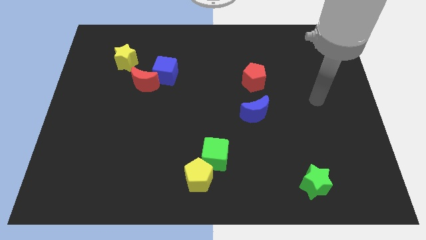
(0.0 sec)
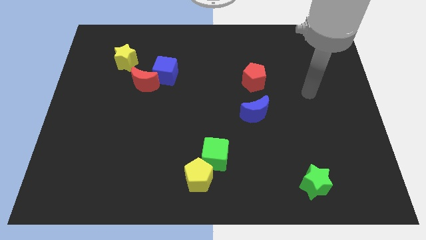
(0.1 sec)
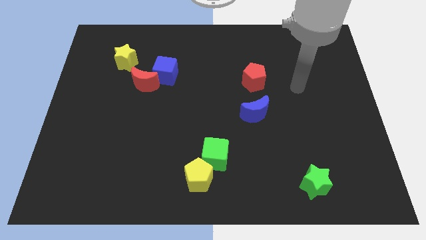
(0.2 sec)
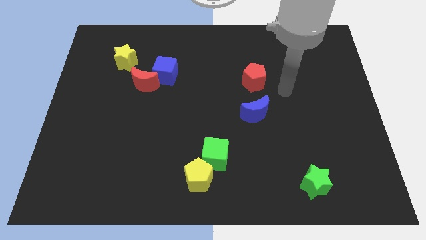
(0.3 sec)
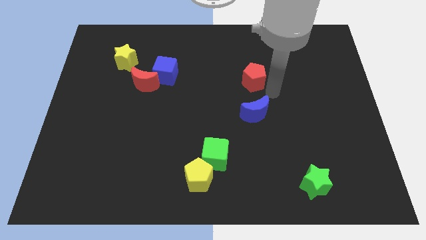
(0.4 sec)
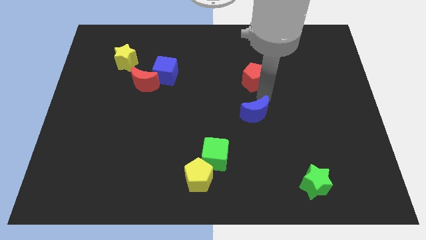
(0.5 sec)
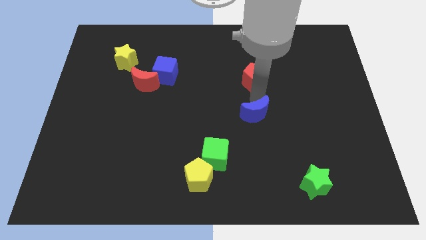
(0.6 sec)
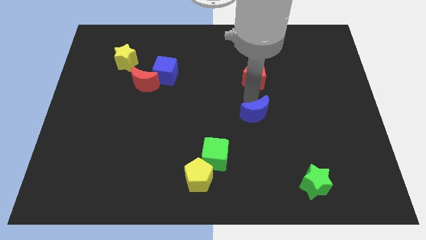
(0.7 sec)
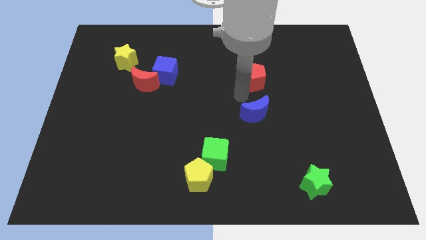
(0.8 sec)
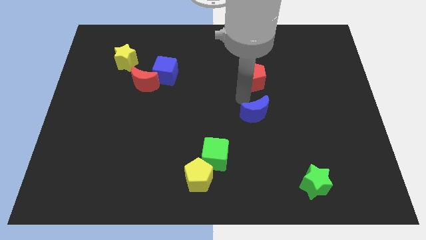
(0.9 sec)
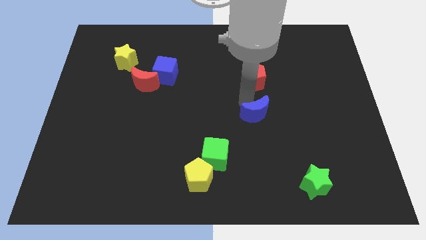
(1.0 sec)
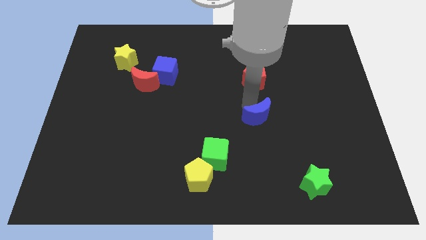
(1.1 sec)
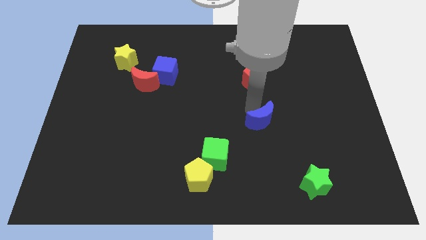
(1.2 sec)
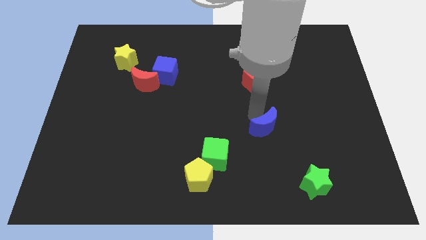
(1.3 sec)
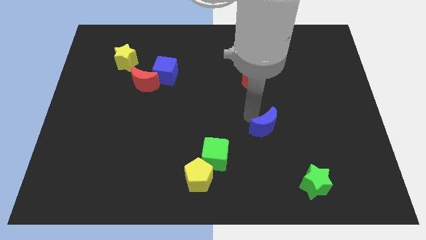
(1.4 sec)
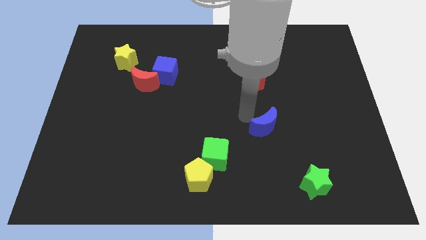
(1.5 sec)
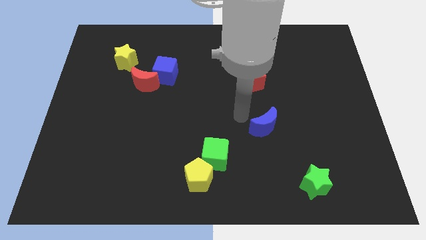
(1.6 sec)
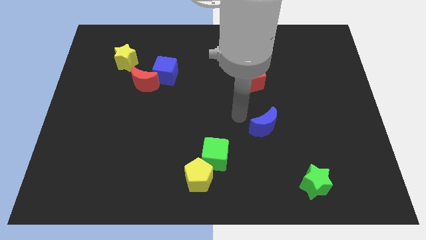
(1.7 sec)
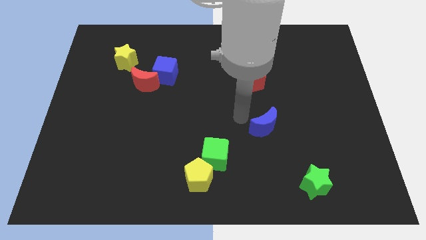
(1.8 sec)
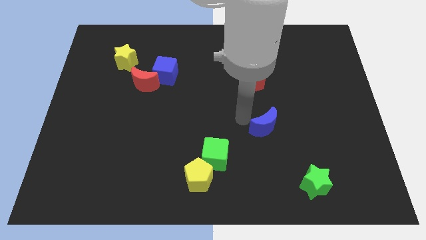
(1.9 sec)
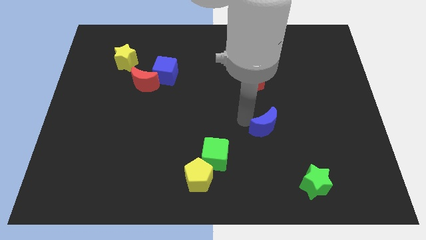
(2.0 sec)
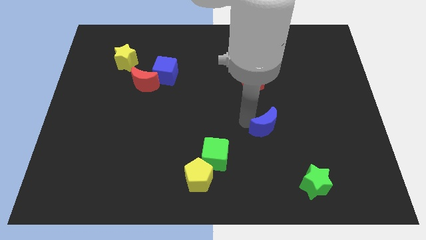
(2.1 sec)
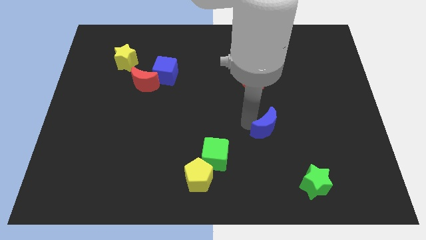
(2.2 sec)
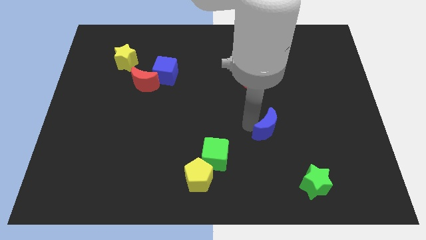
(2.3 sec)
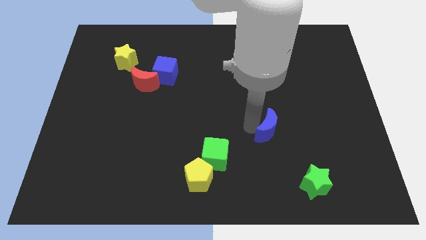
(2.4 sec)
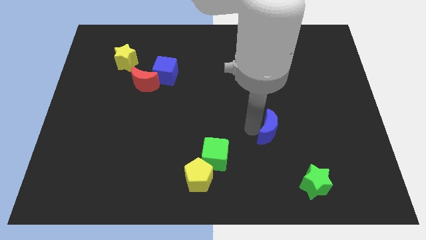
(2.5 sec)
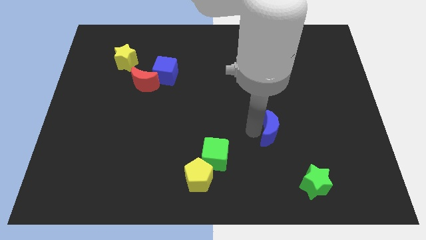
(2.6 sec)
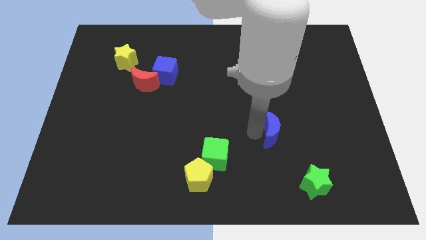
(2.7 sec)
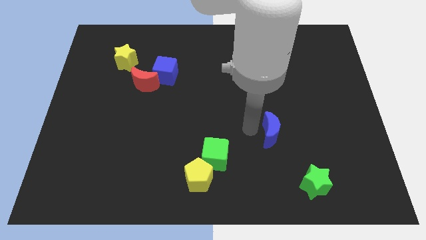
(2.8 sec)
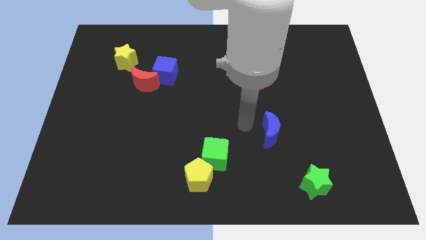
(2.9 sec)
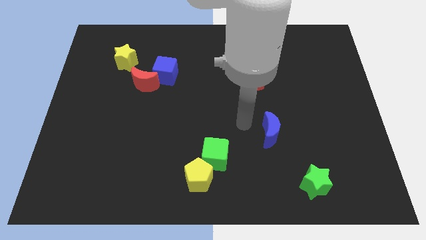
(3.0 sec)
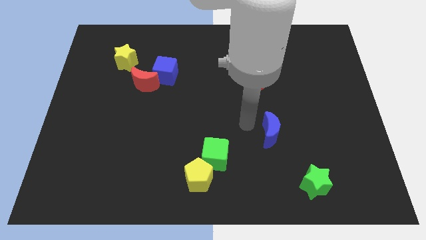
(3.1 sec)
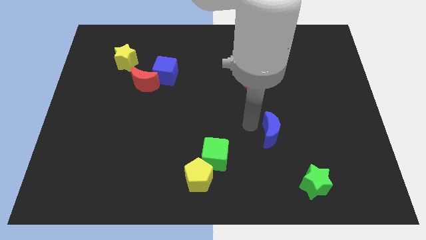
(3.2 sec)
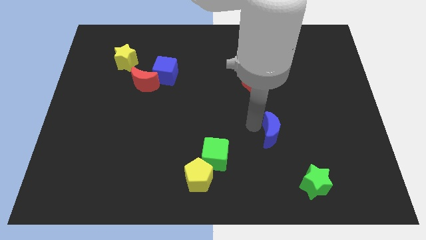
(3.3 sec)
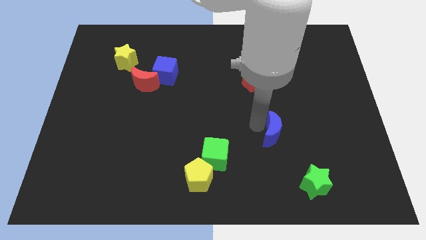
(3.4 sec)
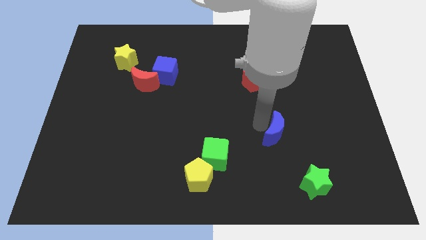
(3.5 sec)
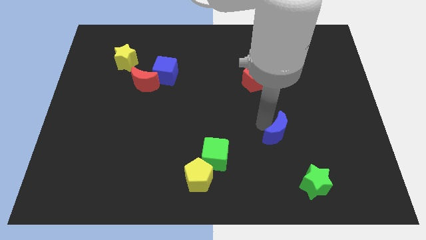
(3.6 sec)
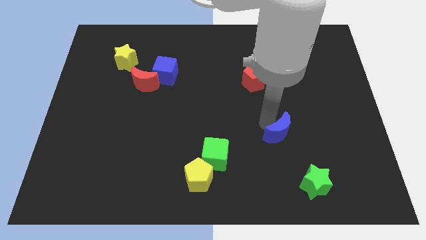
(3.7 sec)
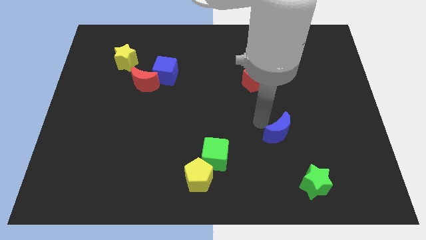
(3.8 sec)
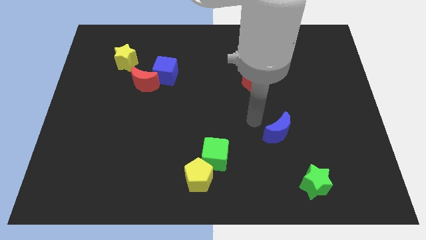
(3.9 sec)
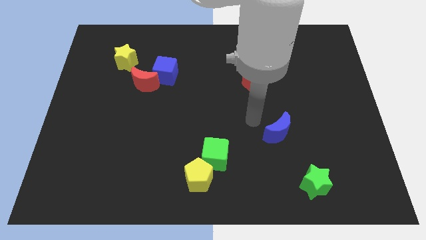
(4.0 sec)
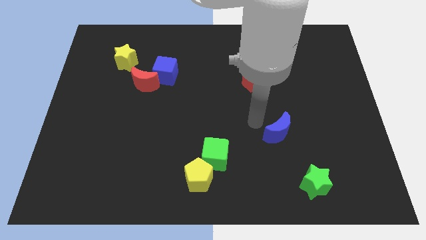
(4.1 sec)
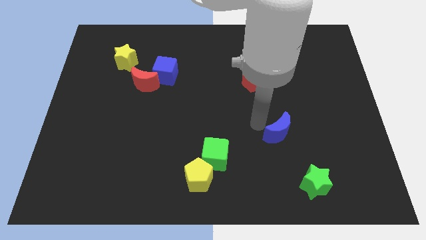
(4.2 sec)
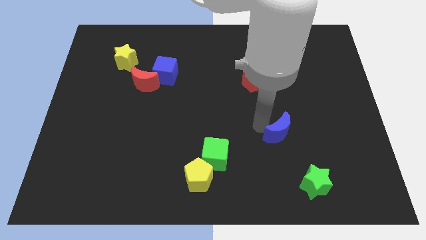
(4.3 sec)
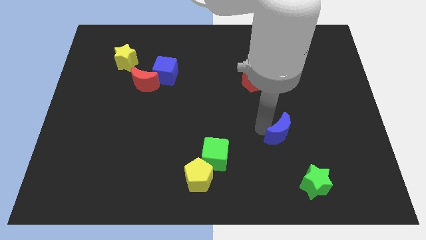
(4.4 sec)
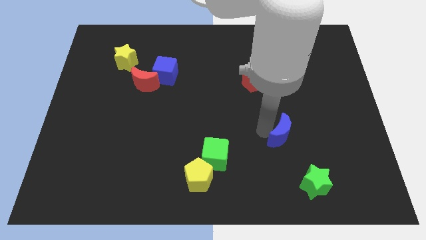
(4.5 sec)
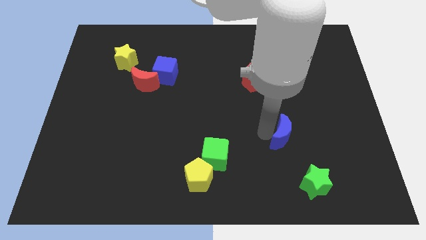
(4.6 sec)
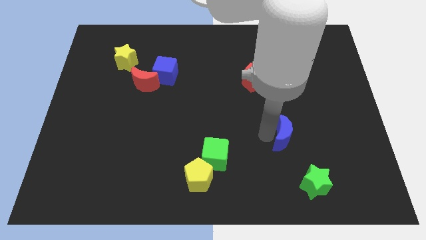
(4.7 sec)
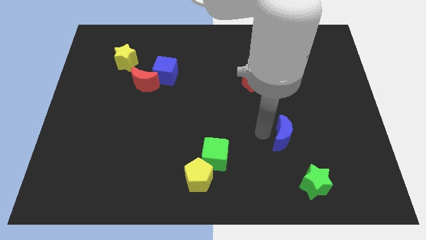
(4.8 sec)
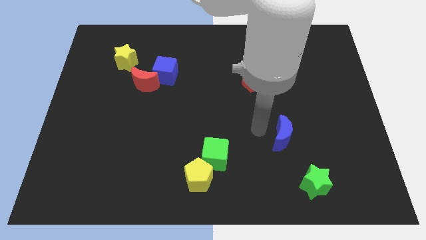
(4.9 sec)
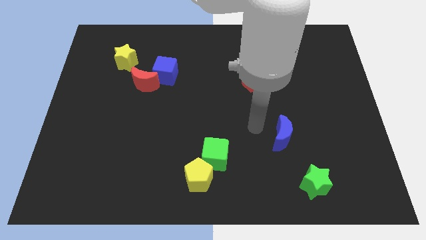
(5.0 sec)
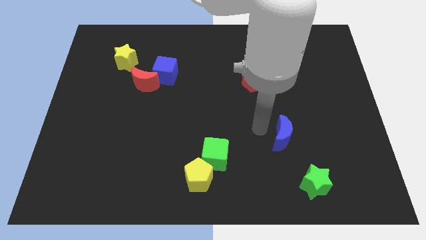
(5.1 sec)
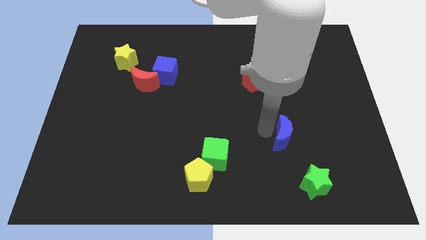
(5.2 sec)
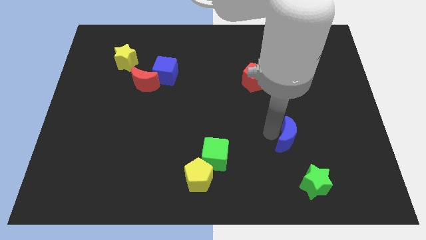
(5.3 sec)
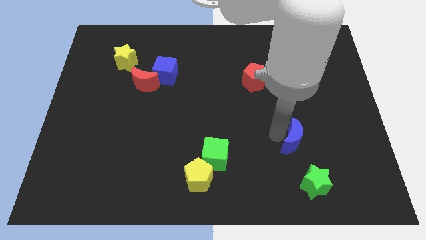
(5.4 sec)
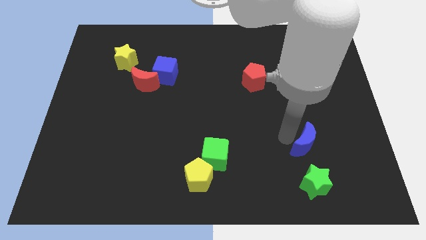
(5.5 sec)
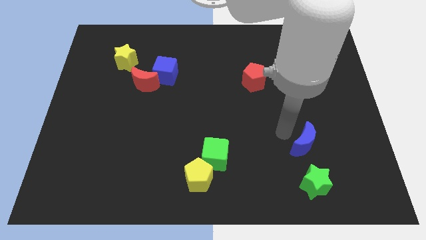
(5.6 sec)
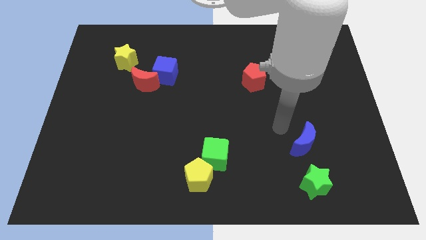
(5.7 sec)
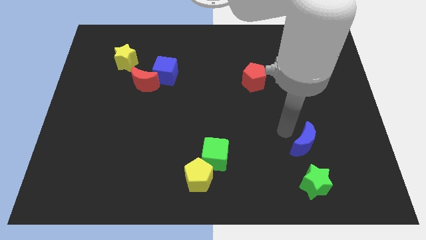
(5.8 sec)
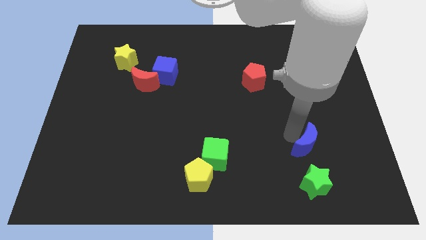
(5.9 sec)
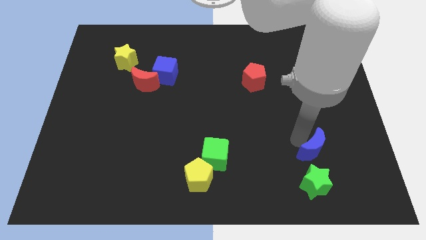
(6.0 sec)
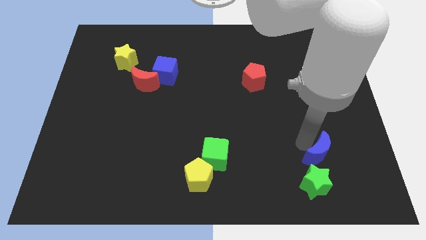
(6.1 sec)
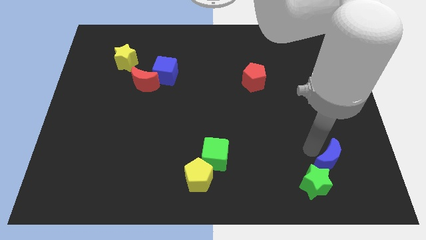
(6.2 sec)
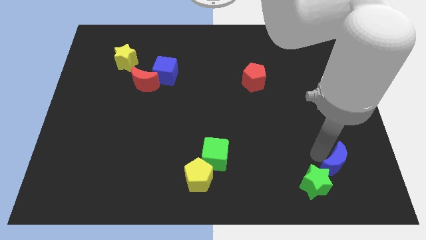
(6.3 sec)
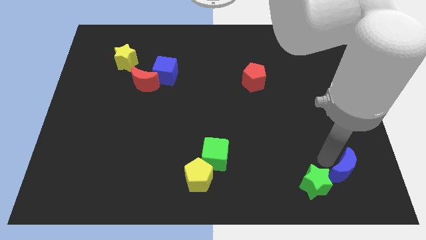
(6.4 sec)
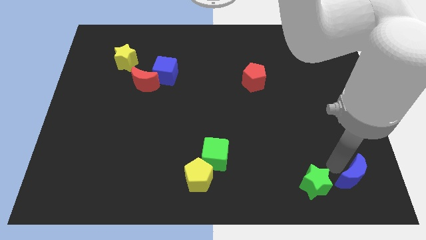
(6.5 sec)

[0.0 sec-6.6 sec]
move the blue moon to the bottom right of the board
